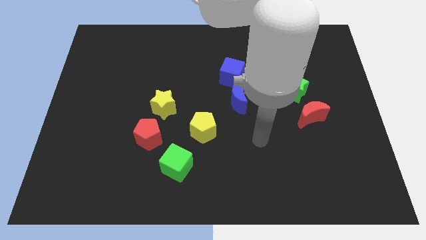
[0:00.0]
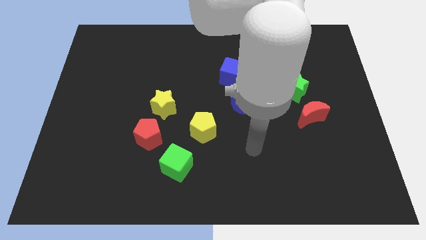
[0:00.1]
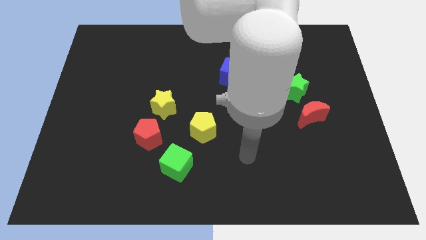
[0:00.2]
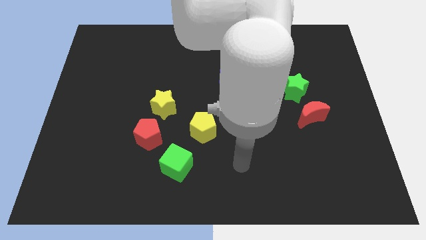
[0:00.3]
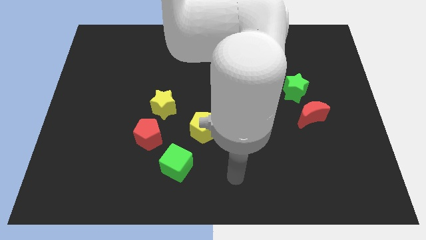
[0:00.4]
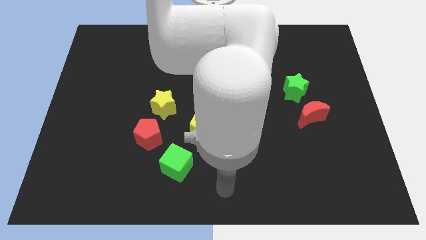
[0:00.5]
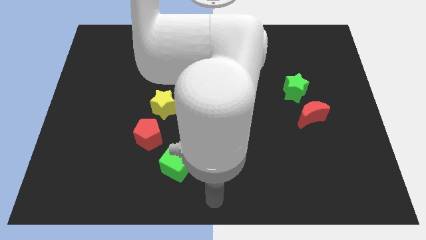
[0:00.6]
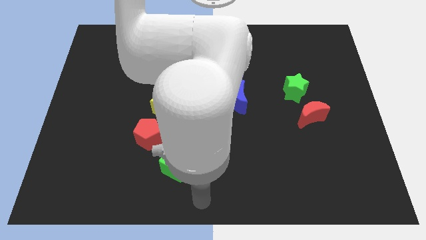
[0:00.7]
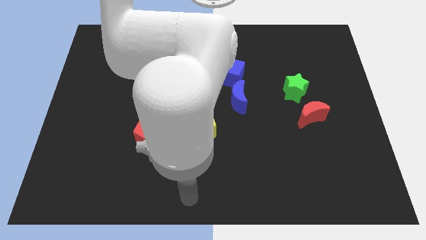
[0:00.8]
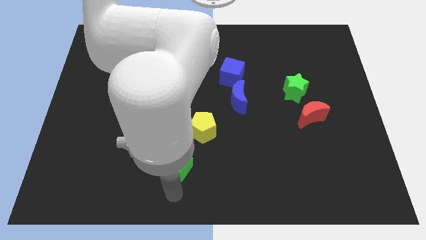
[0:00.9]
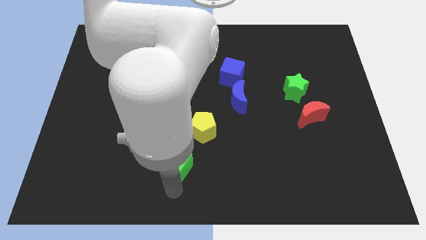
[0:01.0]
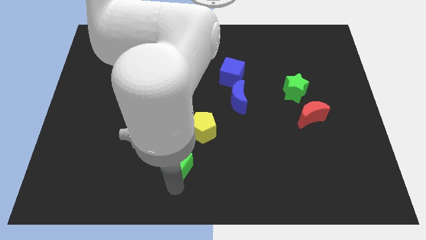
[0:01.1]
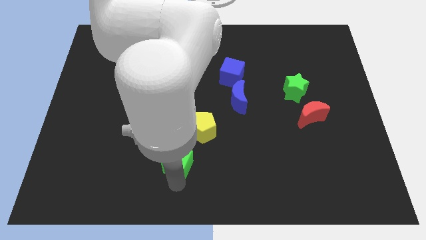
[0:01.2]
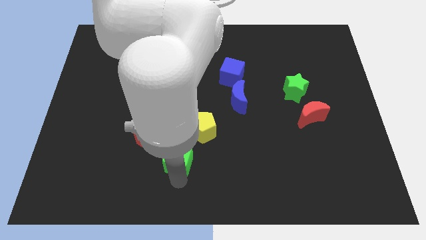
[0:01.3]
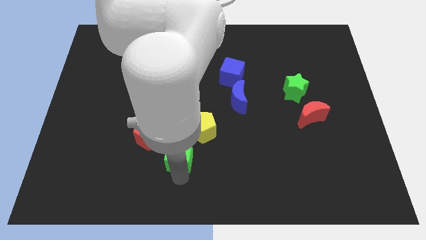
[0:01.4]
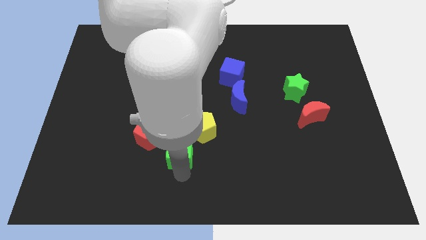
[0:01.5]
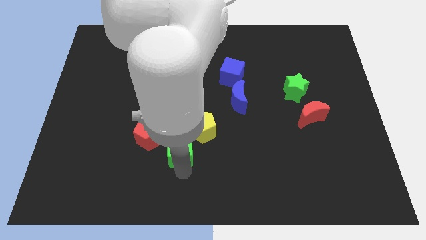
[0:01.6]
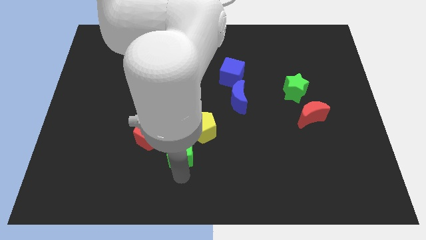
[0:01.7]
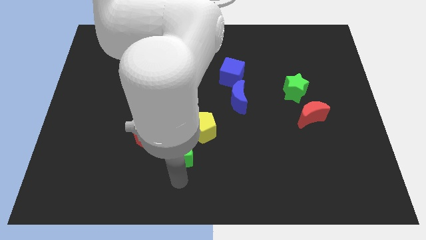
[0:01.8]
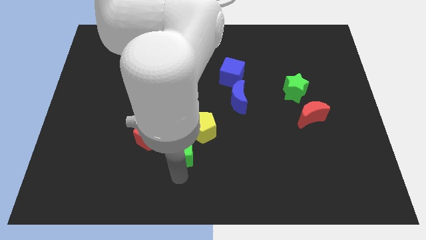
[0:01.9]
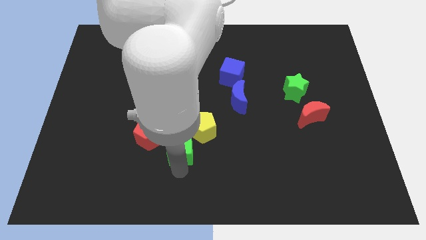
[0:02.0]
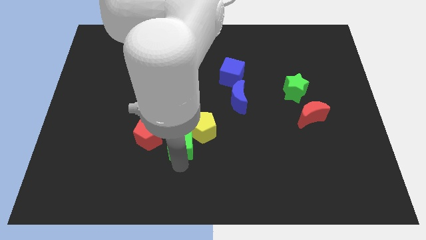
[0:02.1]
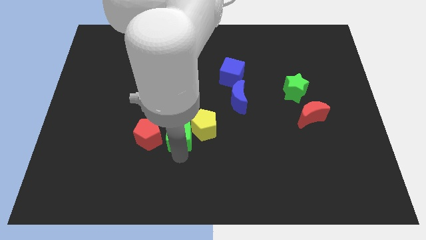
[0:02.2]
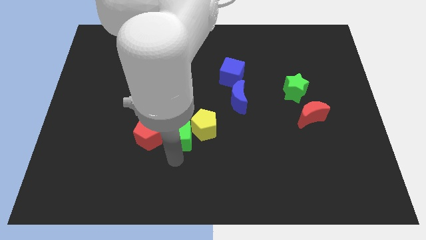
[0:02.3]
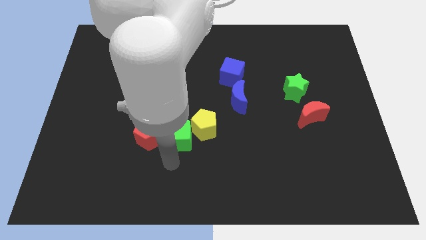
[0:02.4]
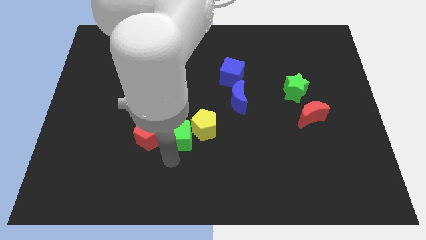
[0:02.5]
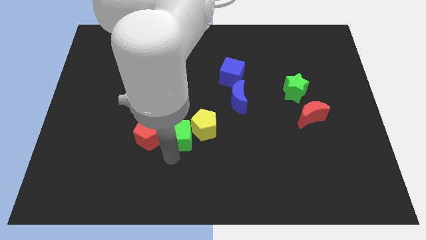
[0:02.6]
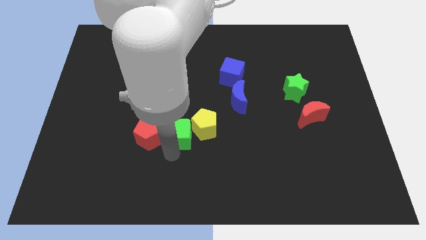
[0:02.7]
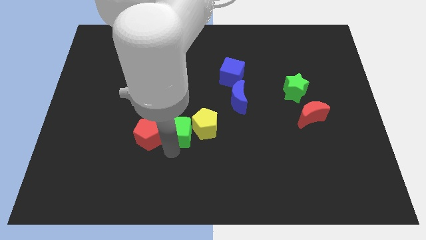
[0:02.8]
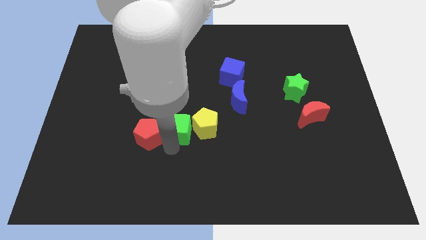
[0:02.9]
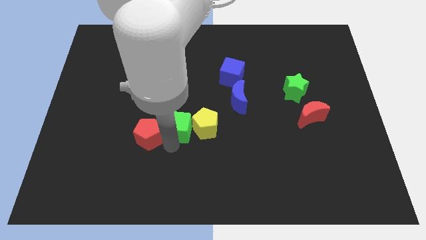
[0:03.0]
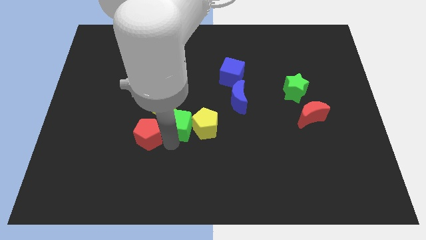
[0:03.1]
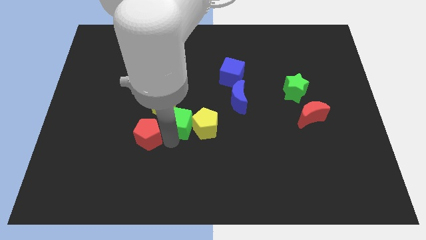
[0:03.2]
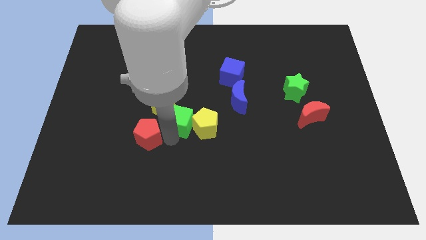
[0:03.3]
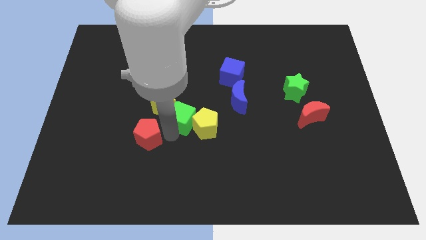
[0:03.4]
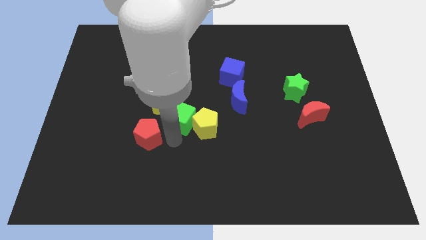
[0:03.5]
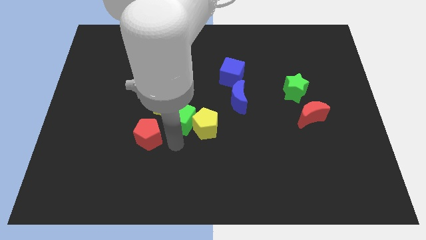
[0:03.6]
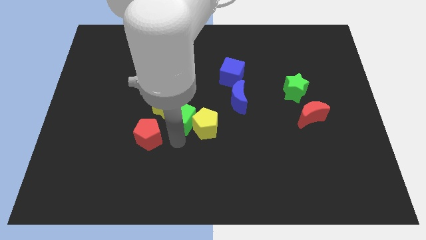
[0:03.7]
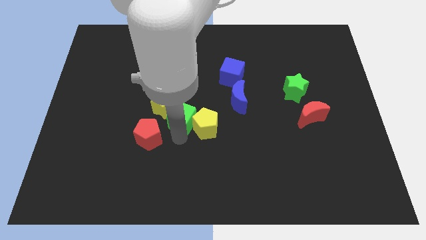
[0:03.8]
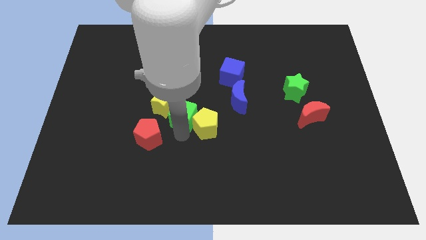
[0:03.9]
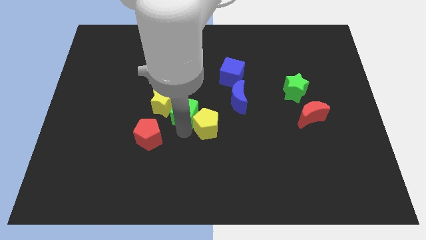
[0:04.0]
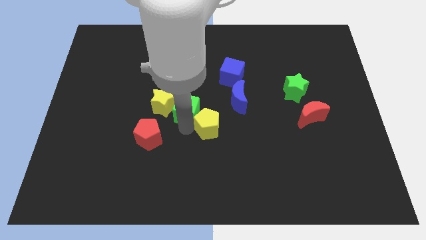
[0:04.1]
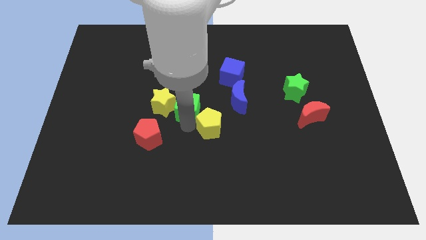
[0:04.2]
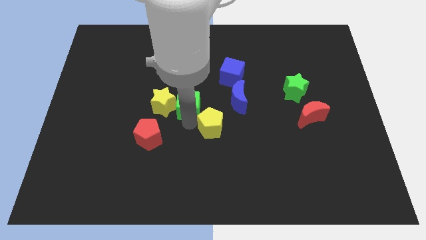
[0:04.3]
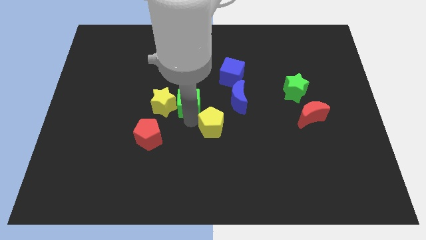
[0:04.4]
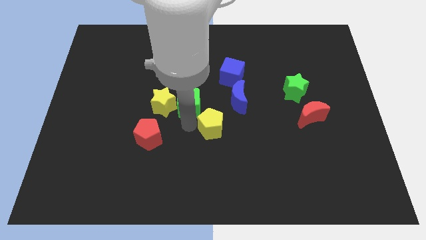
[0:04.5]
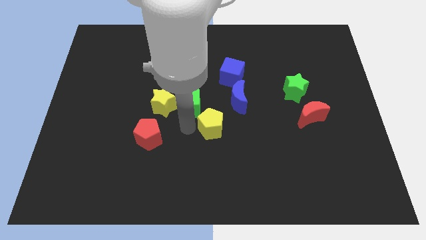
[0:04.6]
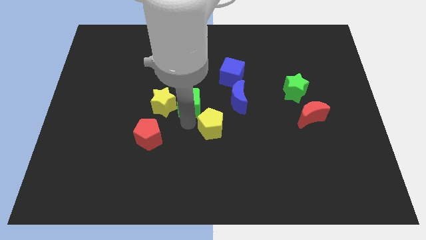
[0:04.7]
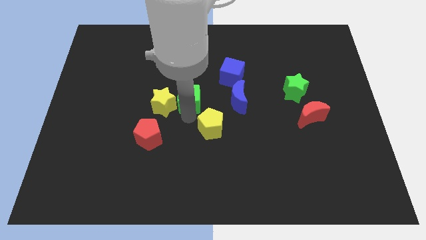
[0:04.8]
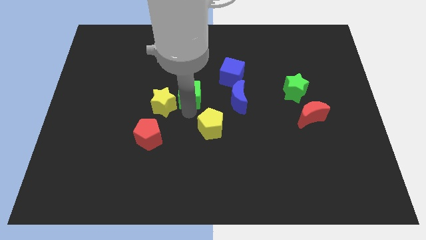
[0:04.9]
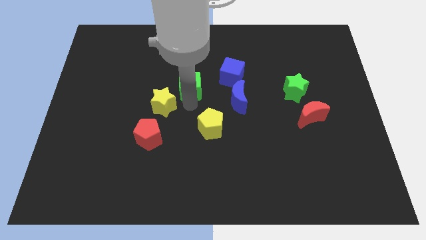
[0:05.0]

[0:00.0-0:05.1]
push the green cube up

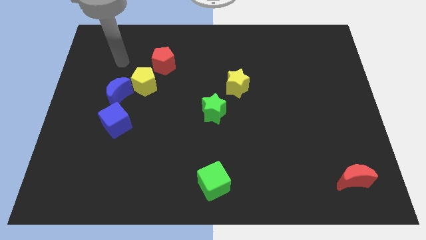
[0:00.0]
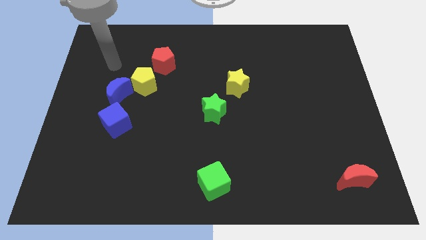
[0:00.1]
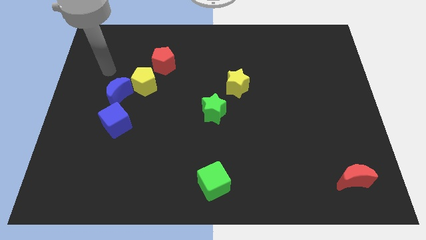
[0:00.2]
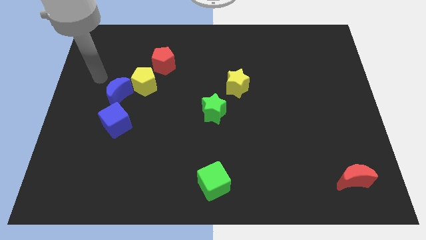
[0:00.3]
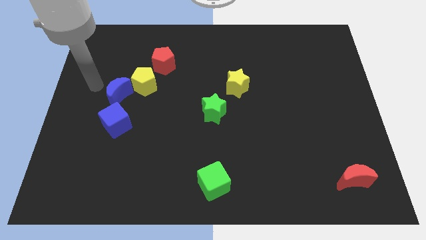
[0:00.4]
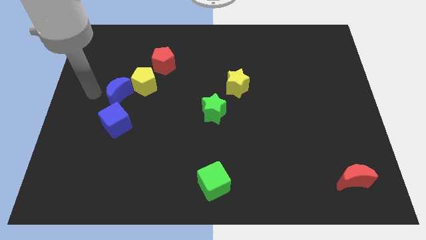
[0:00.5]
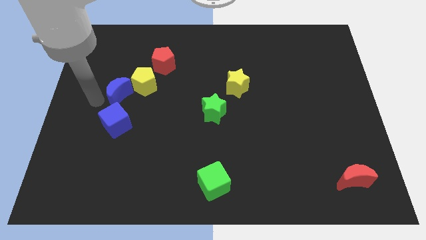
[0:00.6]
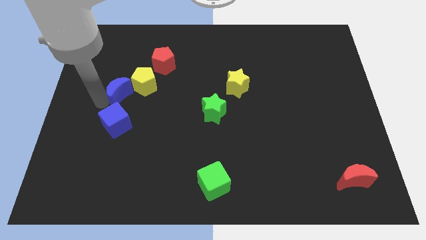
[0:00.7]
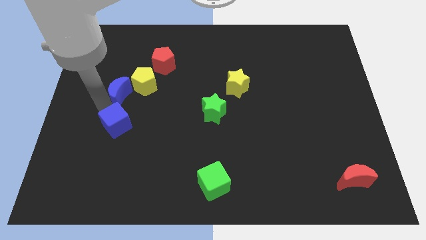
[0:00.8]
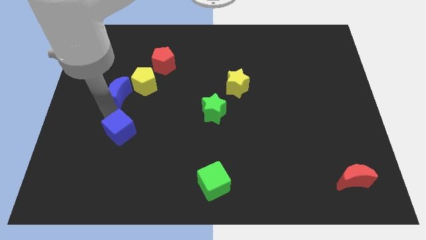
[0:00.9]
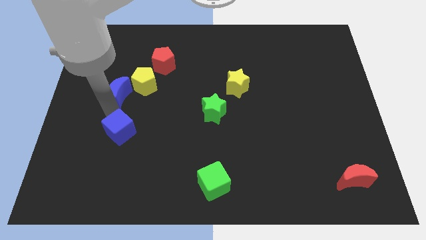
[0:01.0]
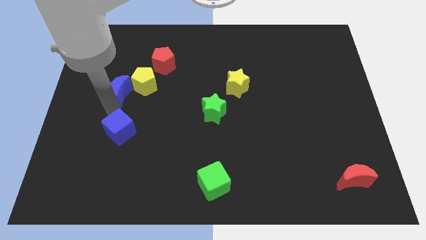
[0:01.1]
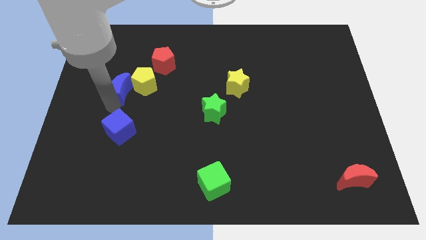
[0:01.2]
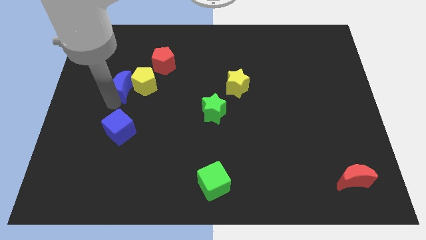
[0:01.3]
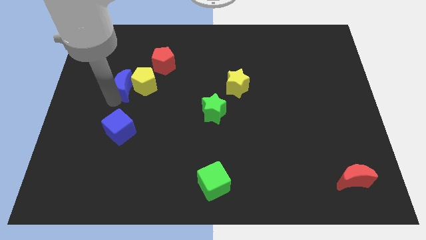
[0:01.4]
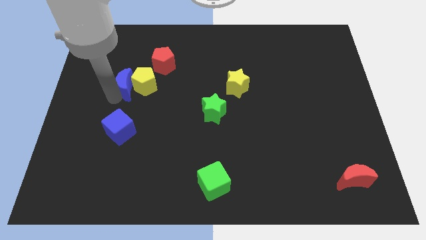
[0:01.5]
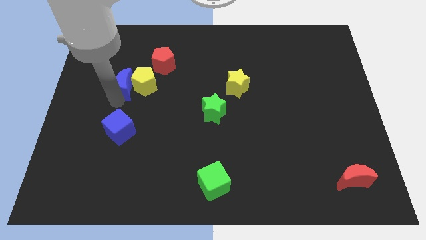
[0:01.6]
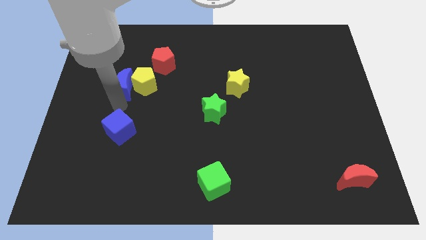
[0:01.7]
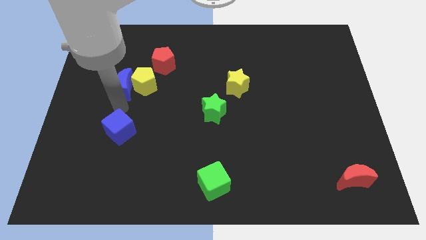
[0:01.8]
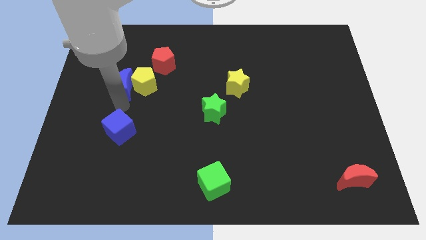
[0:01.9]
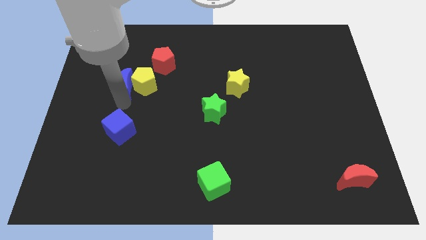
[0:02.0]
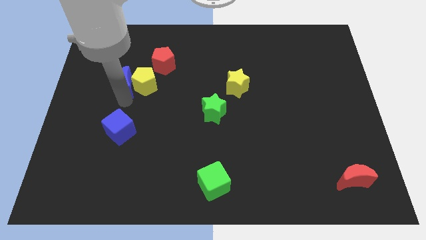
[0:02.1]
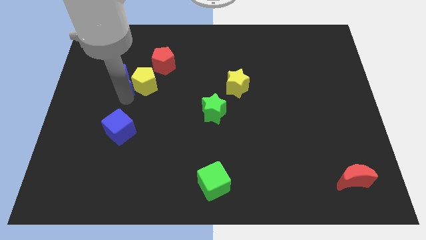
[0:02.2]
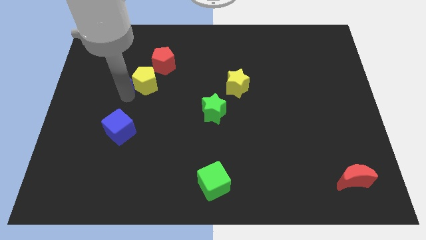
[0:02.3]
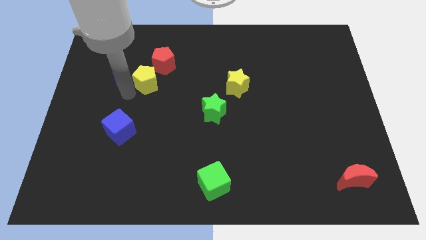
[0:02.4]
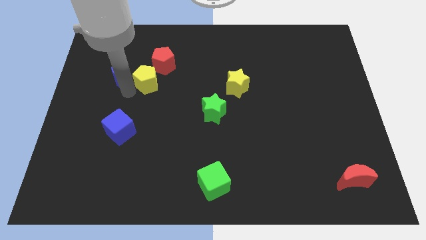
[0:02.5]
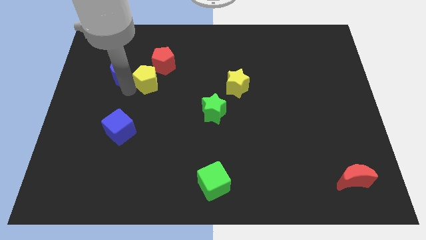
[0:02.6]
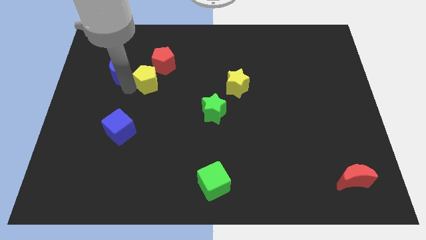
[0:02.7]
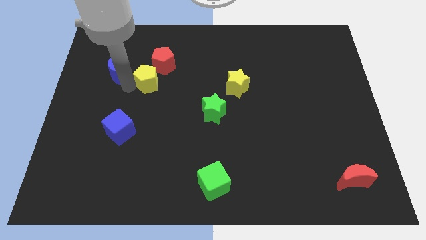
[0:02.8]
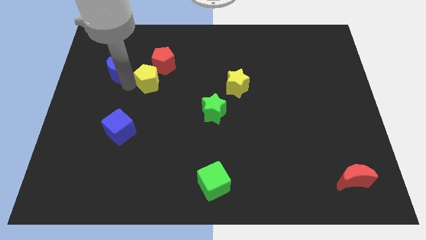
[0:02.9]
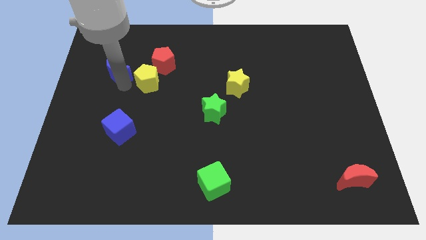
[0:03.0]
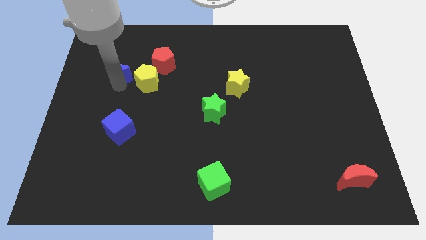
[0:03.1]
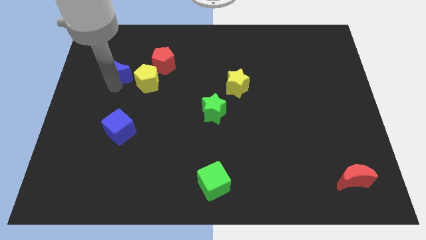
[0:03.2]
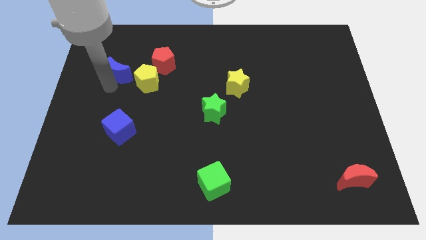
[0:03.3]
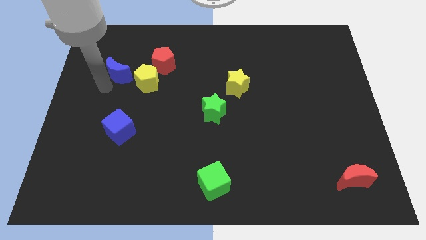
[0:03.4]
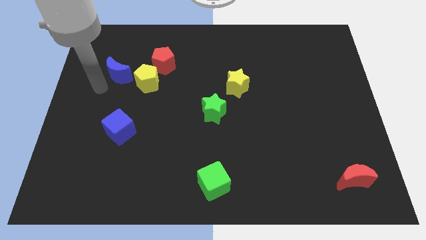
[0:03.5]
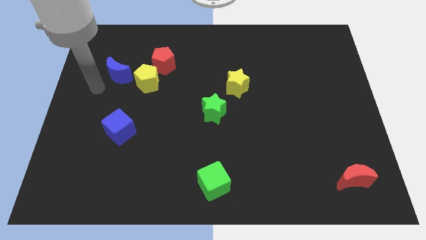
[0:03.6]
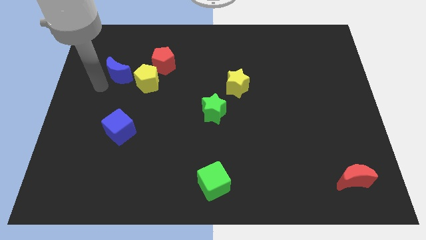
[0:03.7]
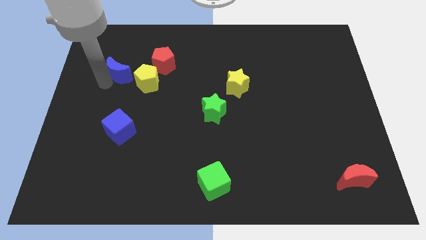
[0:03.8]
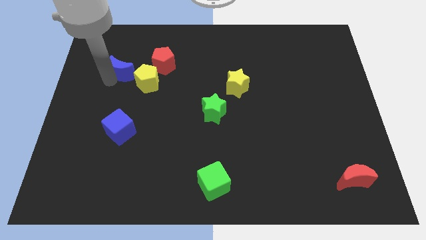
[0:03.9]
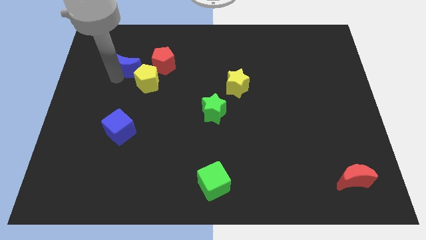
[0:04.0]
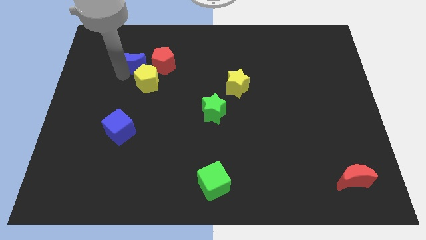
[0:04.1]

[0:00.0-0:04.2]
slide the blue moon a little bit up and to the right
